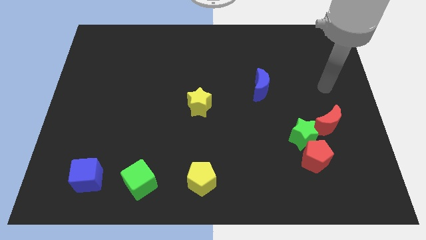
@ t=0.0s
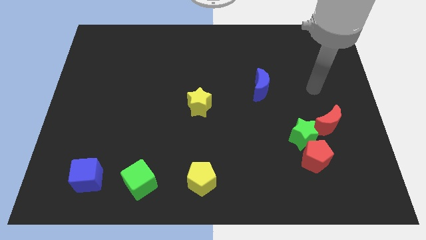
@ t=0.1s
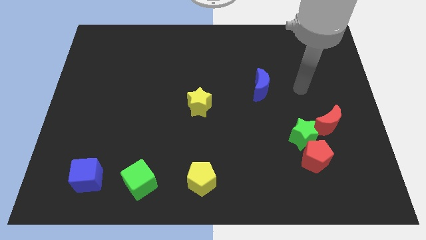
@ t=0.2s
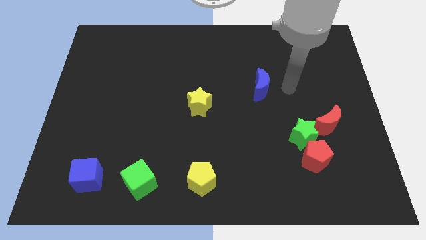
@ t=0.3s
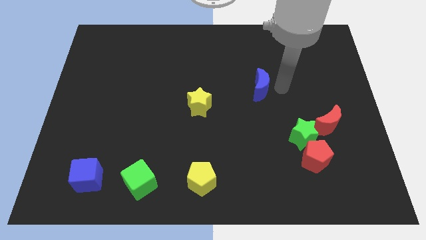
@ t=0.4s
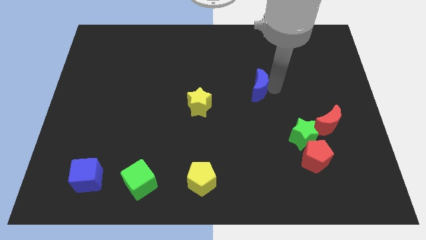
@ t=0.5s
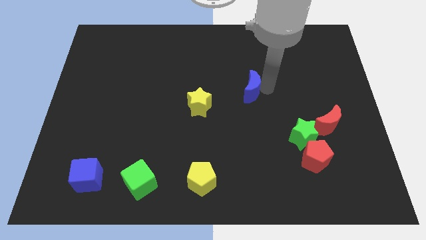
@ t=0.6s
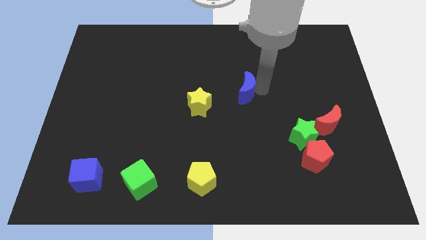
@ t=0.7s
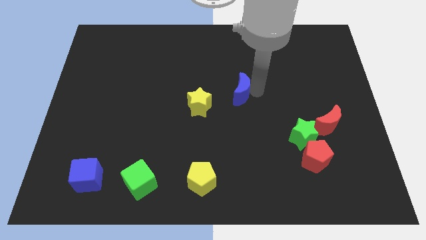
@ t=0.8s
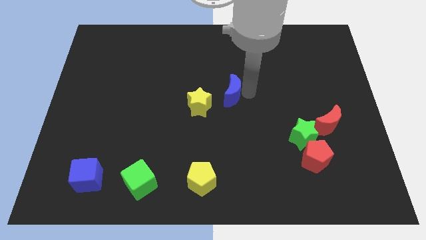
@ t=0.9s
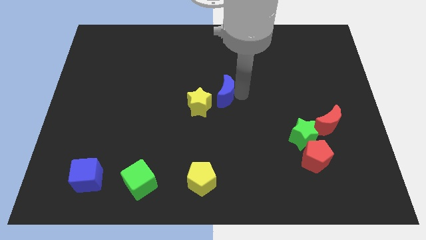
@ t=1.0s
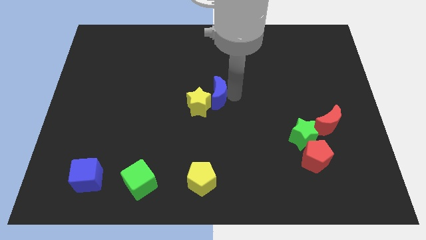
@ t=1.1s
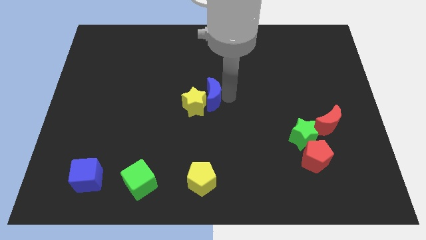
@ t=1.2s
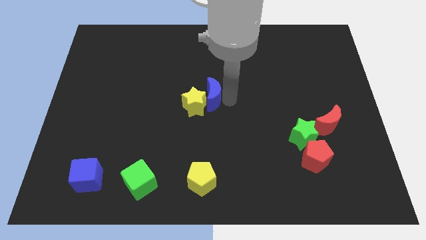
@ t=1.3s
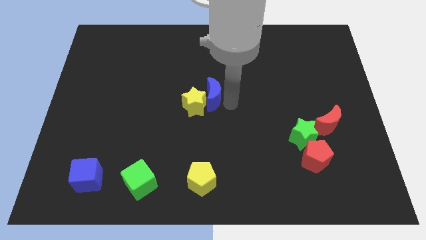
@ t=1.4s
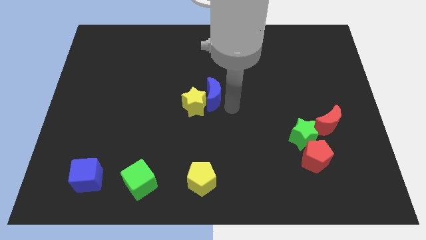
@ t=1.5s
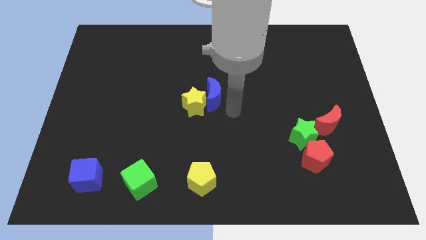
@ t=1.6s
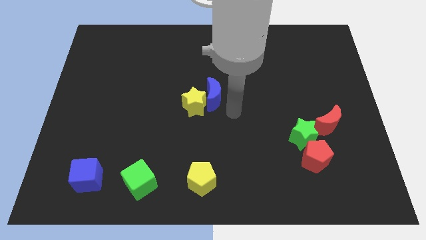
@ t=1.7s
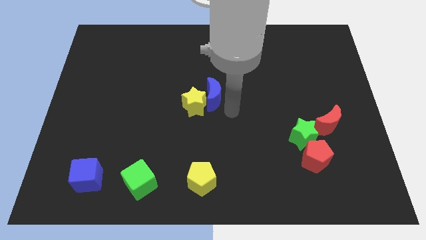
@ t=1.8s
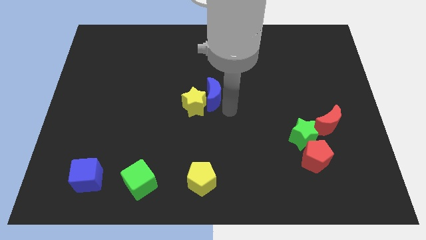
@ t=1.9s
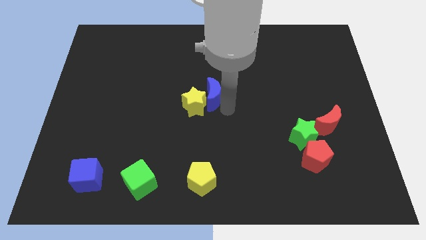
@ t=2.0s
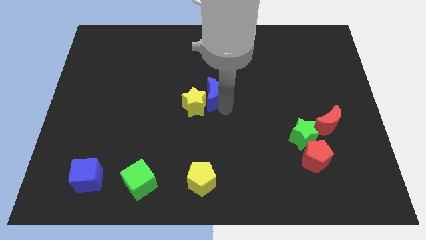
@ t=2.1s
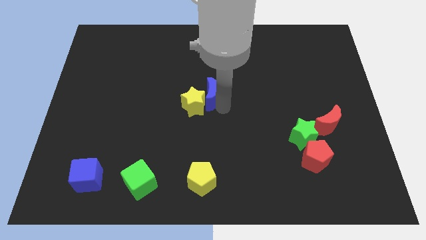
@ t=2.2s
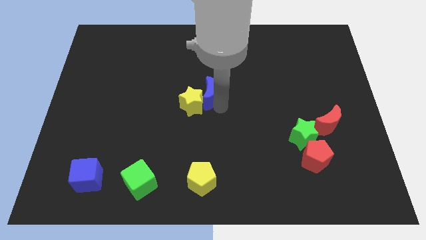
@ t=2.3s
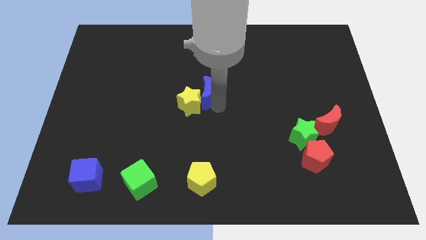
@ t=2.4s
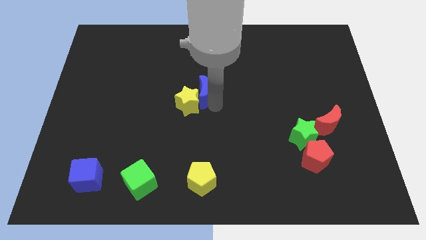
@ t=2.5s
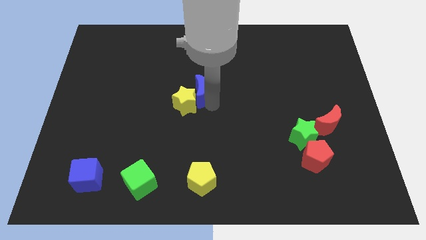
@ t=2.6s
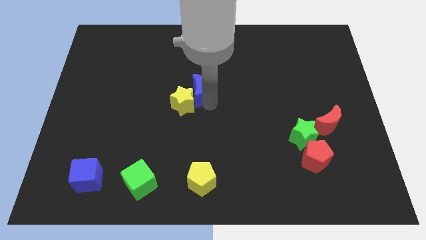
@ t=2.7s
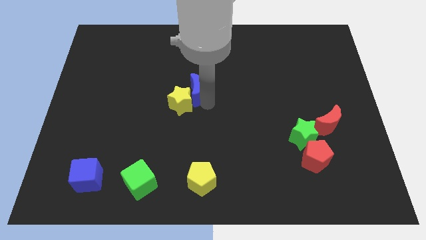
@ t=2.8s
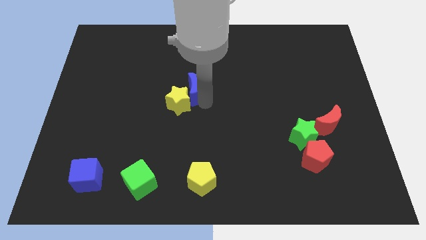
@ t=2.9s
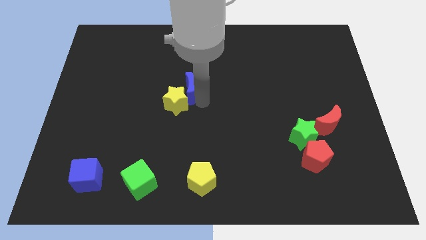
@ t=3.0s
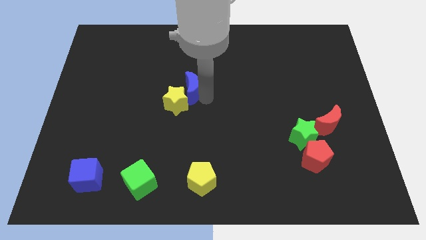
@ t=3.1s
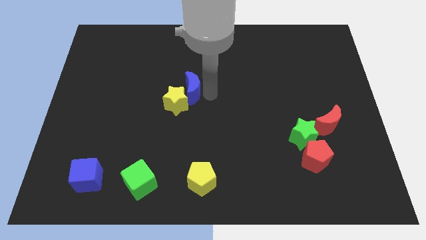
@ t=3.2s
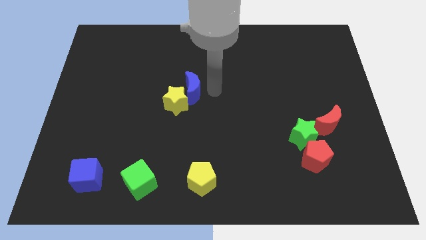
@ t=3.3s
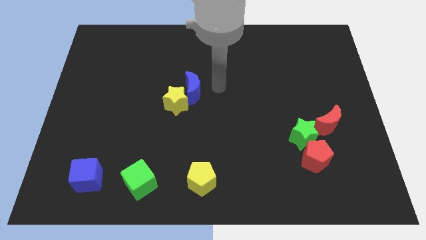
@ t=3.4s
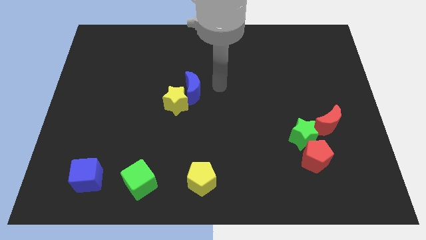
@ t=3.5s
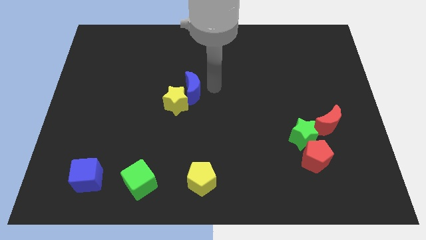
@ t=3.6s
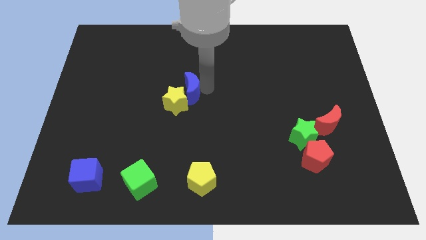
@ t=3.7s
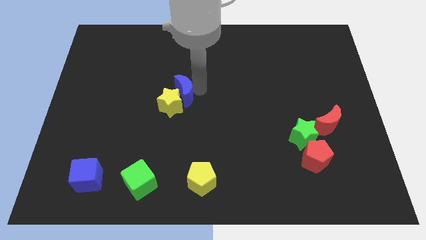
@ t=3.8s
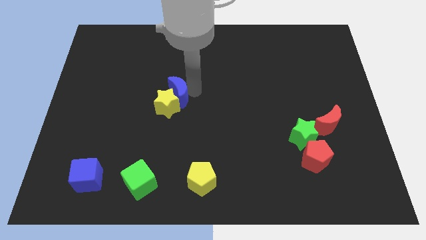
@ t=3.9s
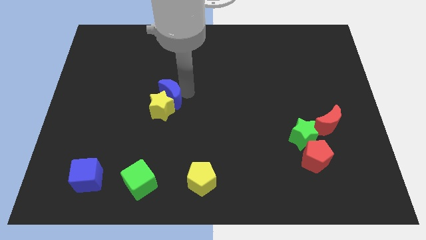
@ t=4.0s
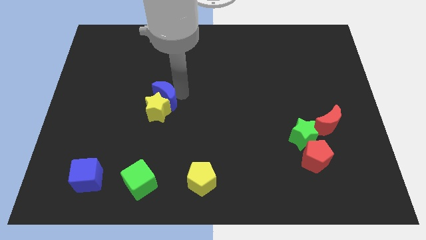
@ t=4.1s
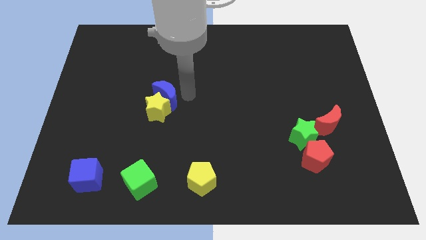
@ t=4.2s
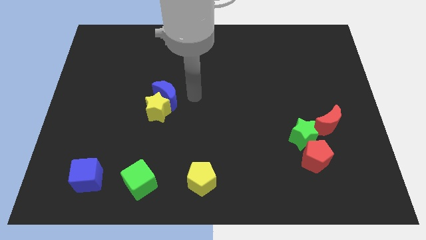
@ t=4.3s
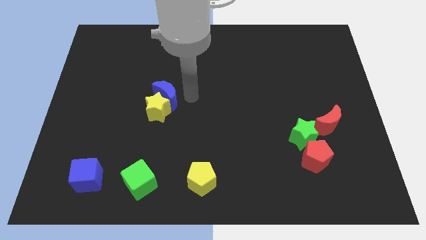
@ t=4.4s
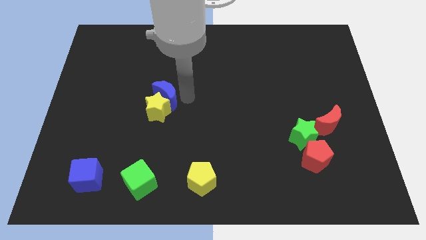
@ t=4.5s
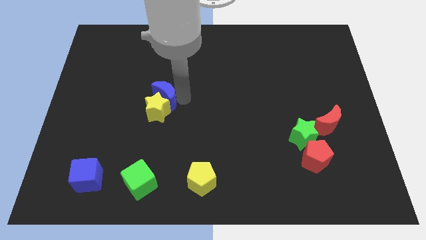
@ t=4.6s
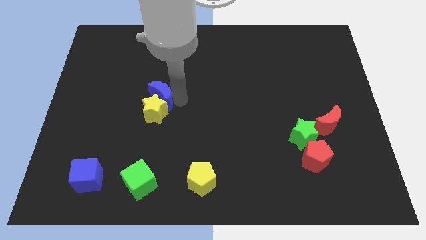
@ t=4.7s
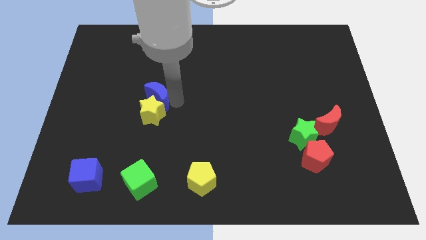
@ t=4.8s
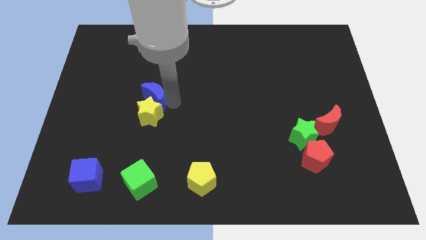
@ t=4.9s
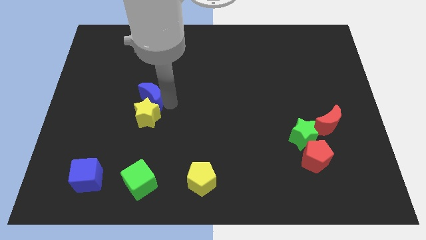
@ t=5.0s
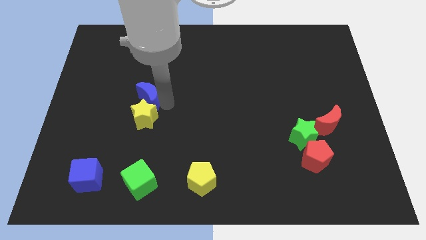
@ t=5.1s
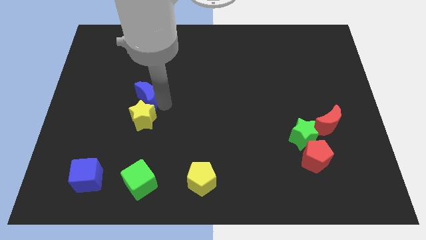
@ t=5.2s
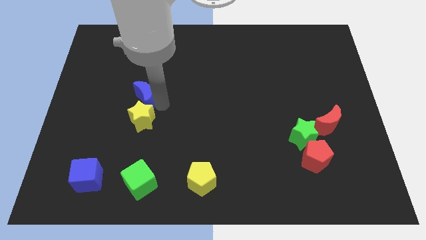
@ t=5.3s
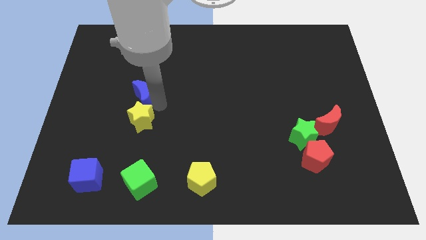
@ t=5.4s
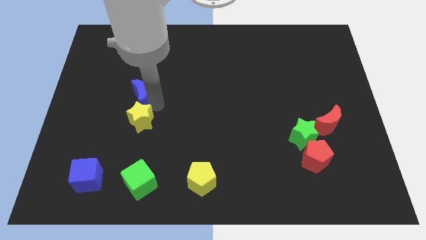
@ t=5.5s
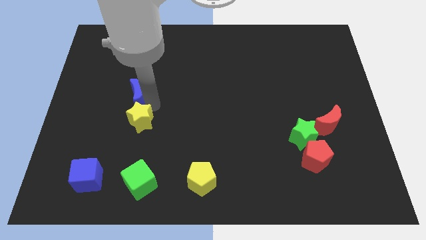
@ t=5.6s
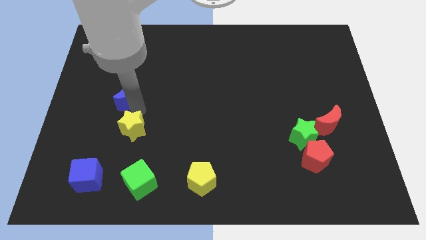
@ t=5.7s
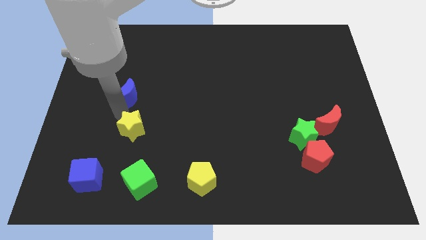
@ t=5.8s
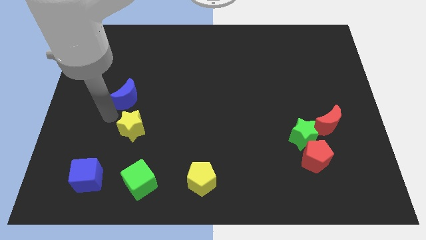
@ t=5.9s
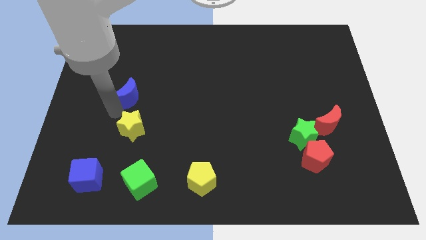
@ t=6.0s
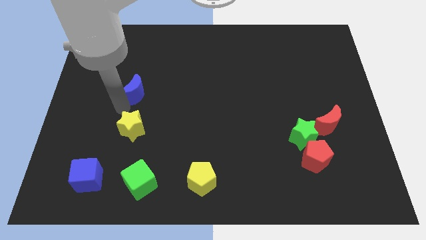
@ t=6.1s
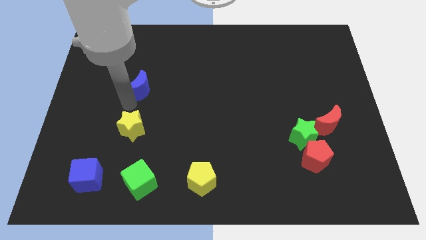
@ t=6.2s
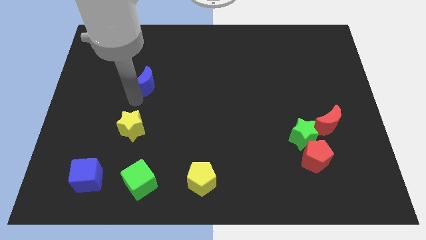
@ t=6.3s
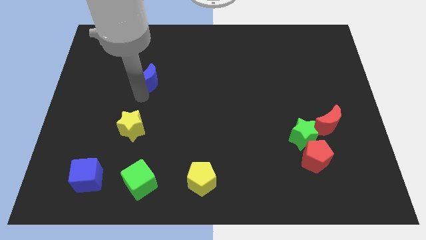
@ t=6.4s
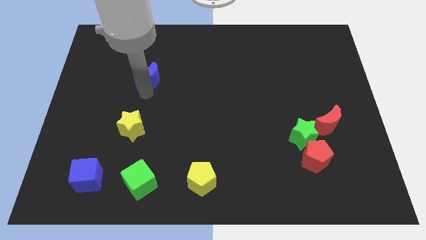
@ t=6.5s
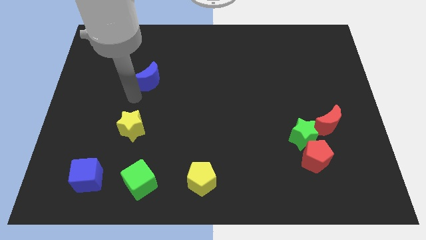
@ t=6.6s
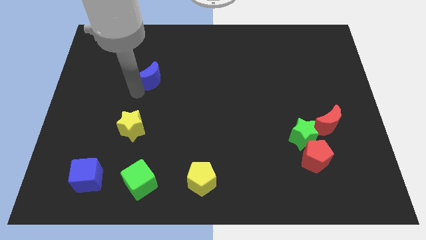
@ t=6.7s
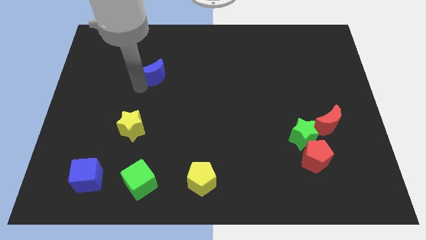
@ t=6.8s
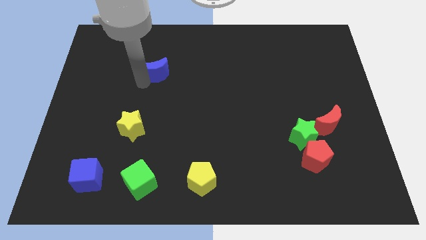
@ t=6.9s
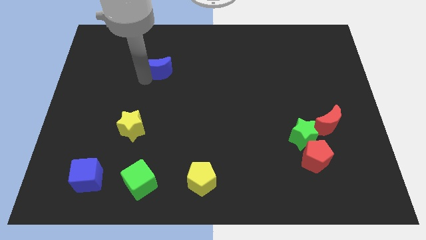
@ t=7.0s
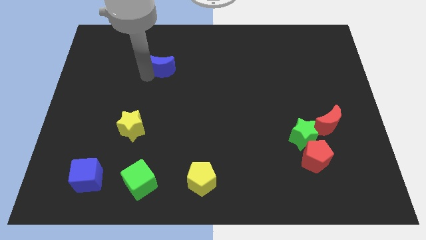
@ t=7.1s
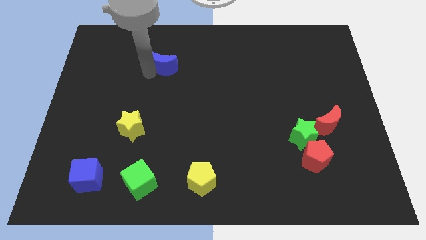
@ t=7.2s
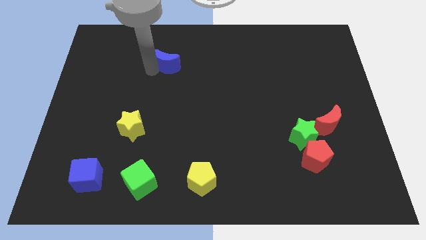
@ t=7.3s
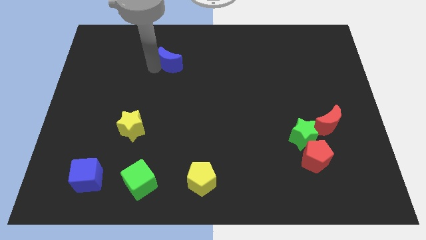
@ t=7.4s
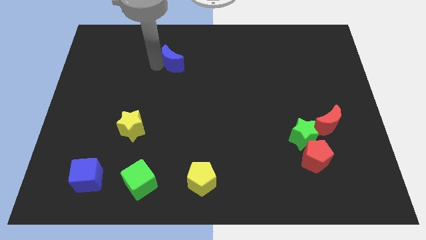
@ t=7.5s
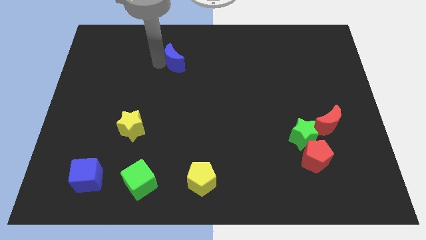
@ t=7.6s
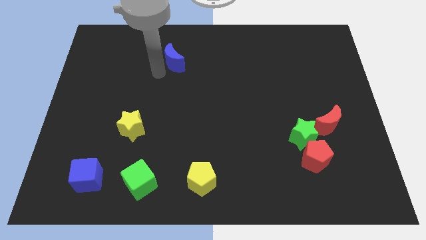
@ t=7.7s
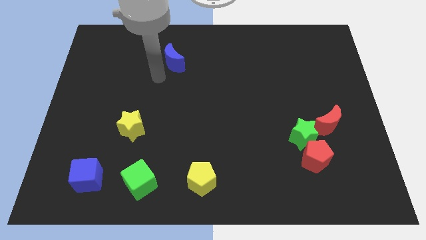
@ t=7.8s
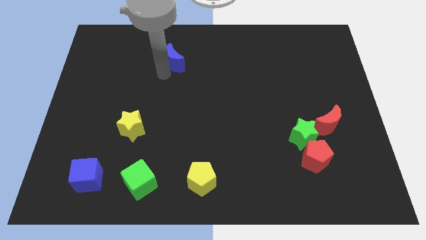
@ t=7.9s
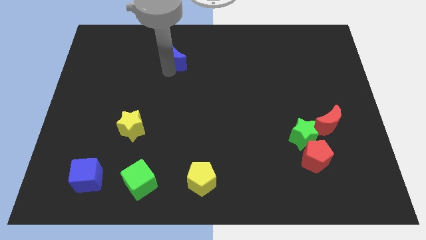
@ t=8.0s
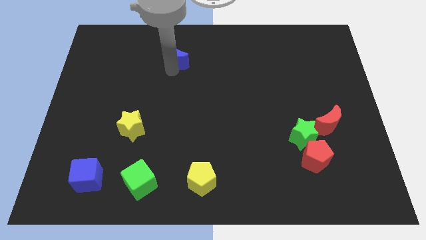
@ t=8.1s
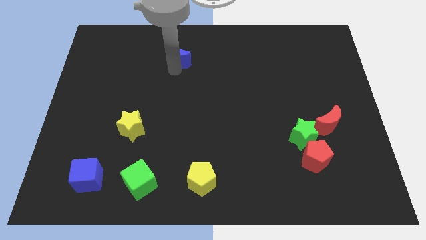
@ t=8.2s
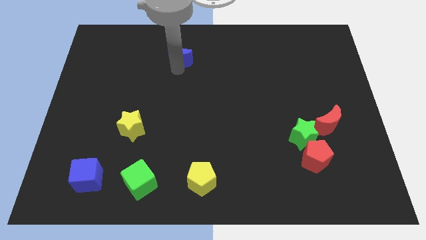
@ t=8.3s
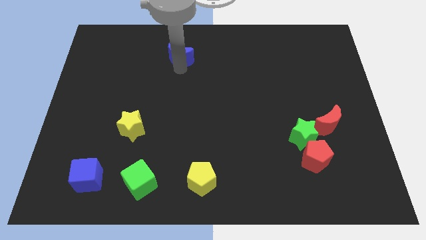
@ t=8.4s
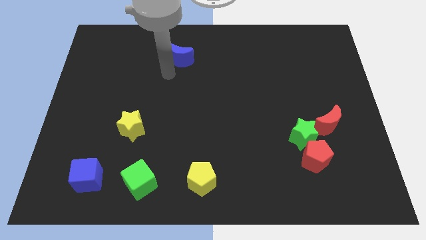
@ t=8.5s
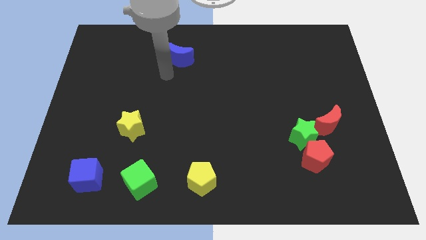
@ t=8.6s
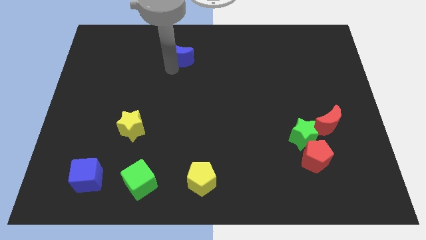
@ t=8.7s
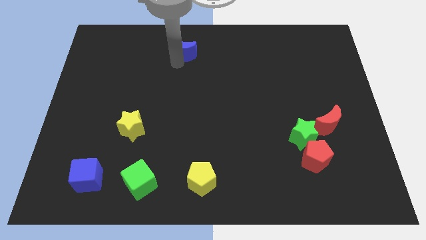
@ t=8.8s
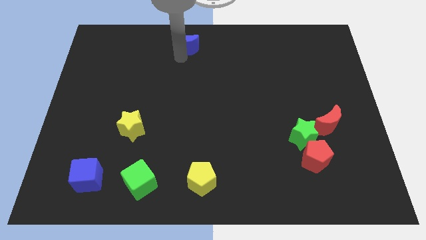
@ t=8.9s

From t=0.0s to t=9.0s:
slide the blue moon to the towards your base
